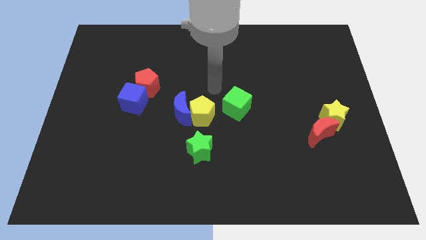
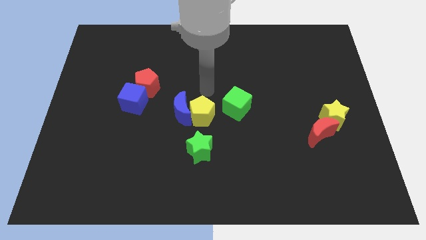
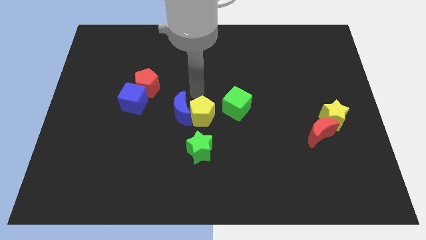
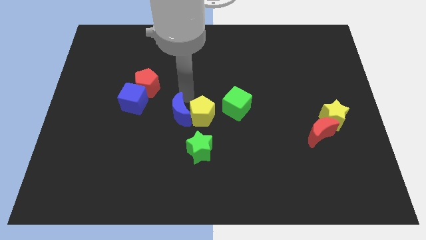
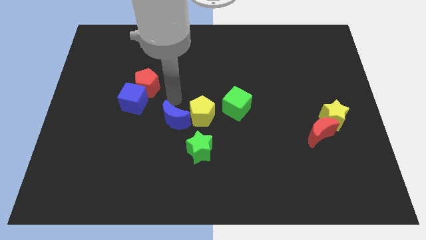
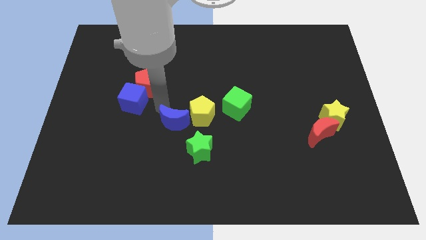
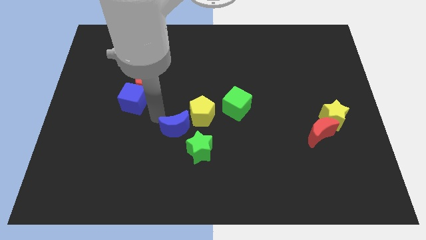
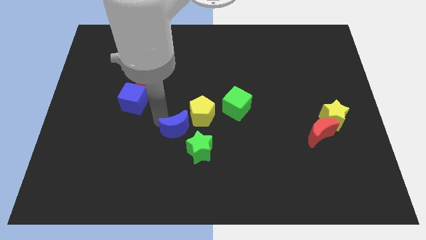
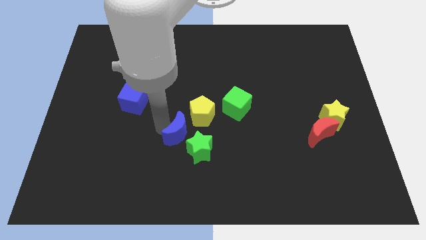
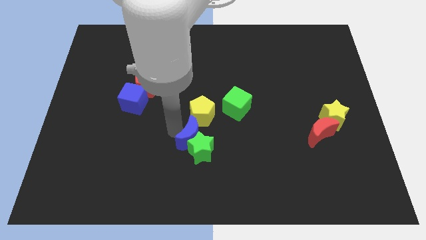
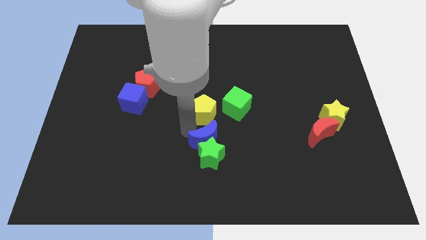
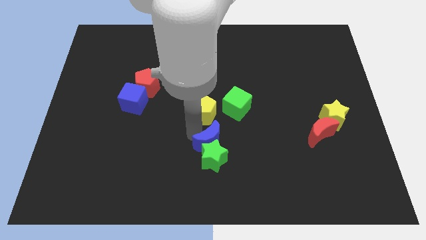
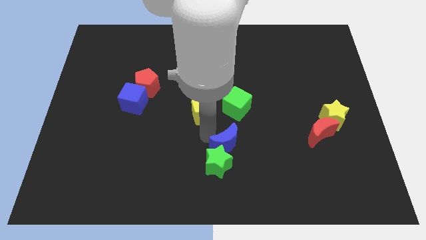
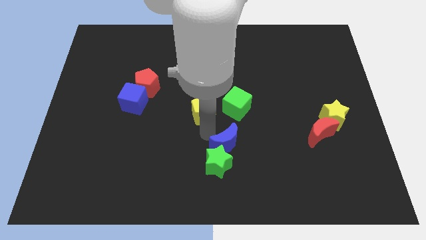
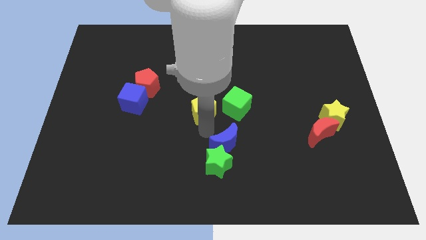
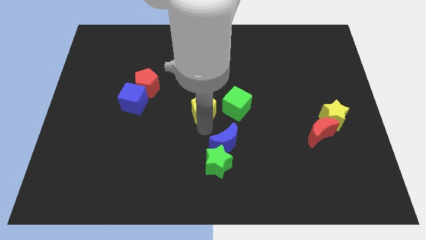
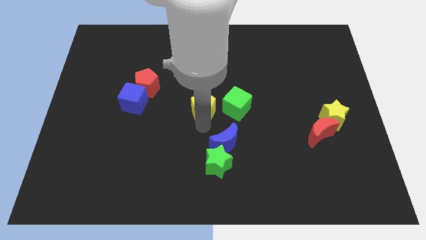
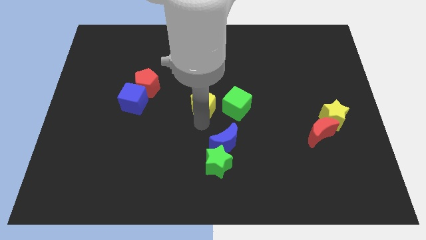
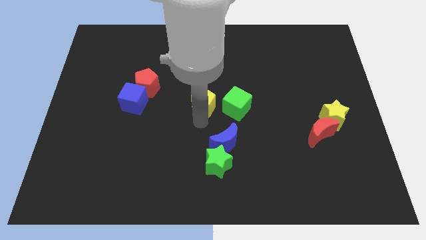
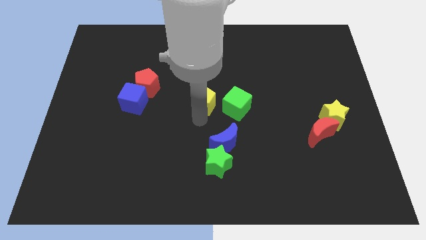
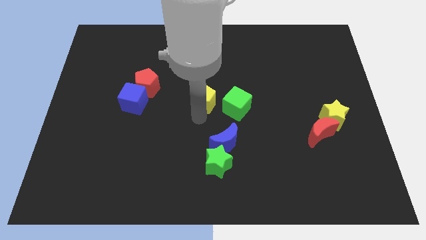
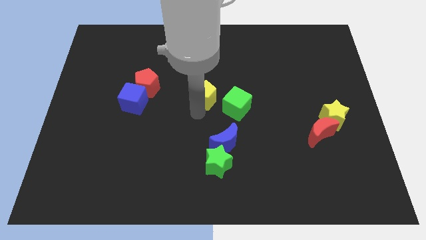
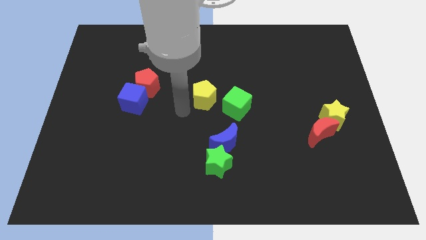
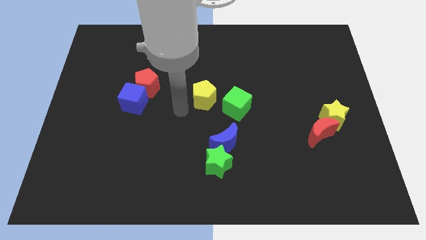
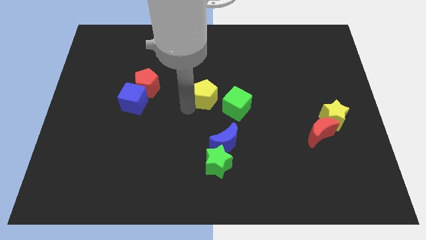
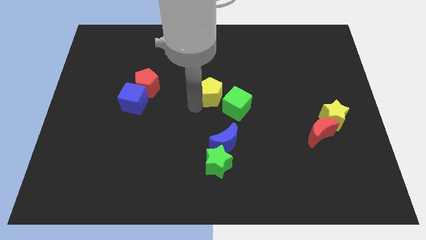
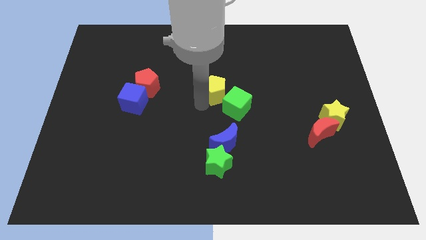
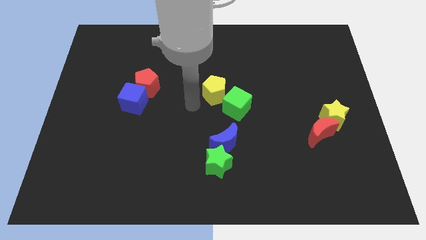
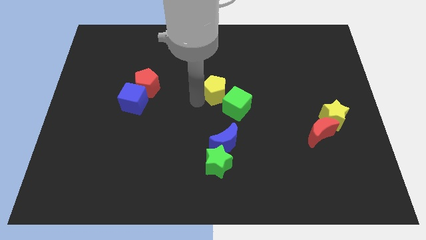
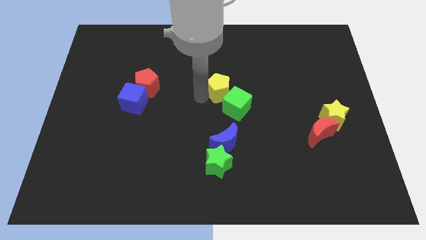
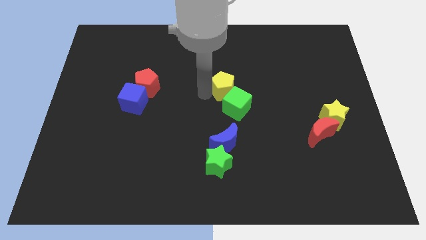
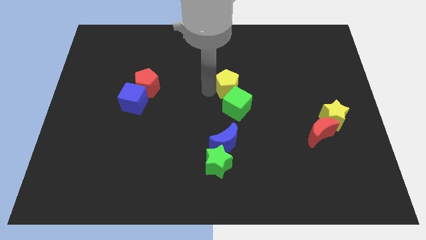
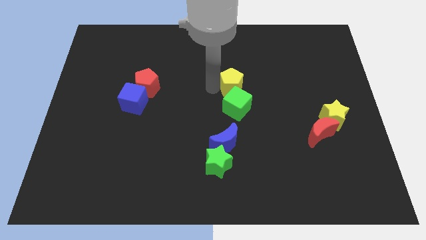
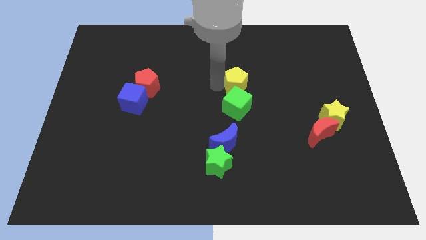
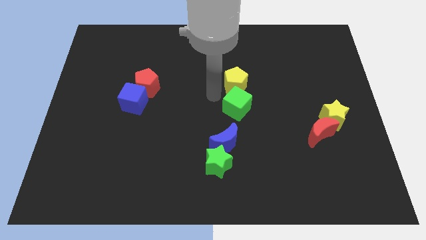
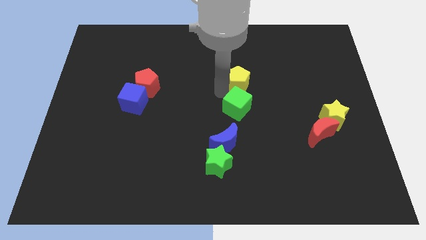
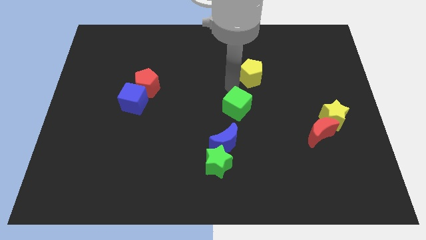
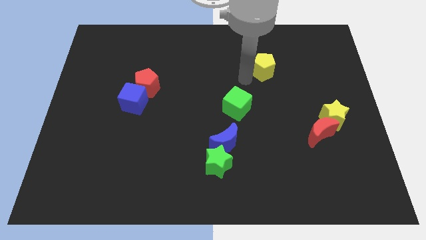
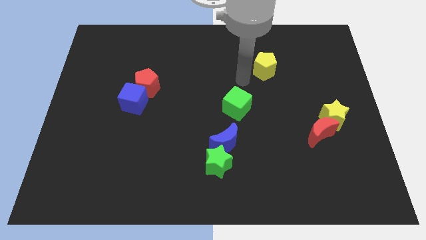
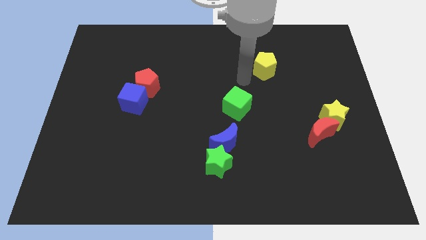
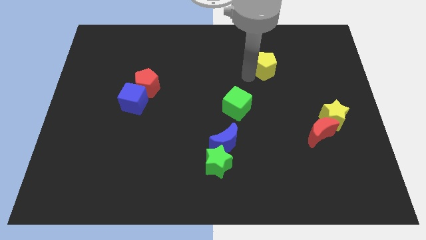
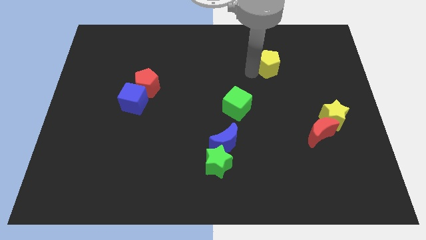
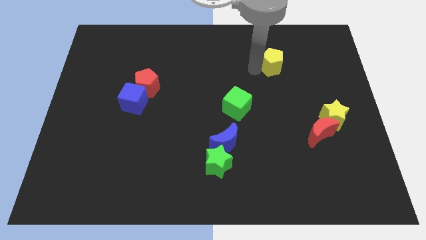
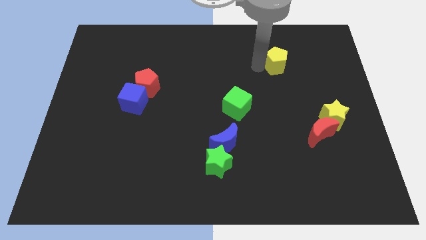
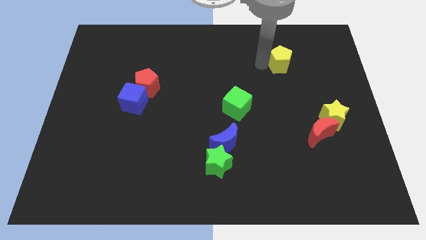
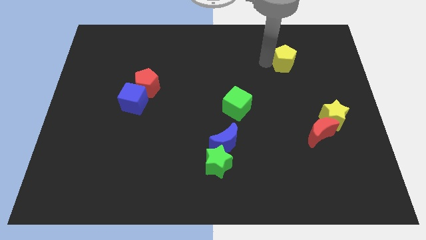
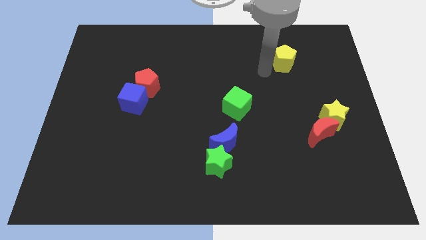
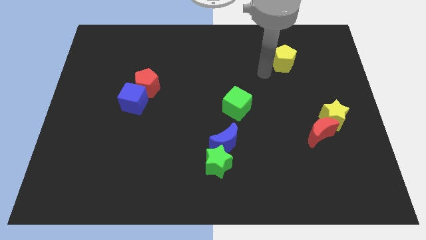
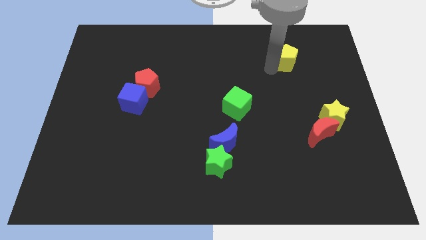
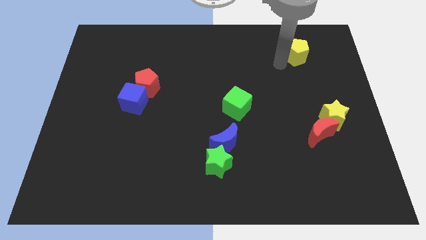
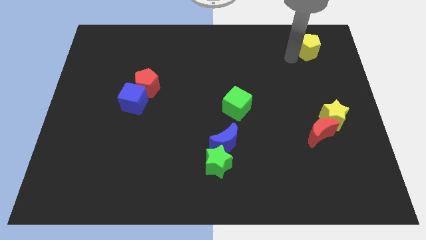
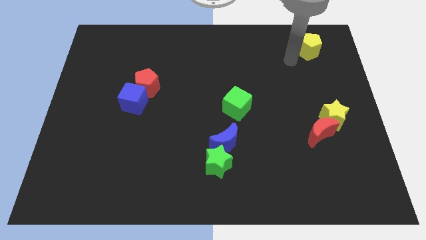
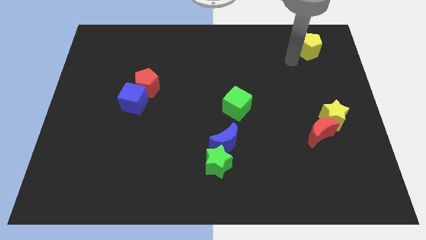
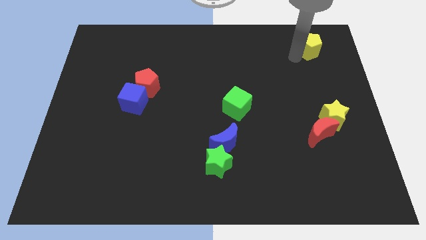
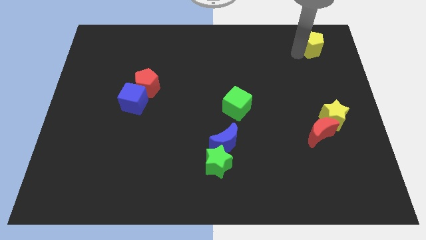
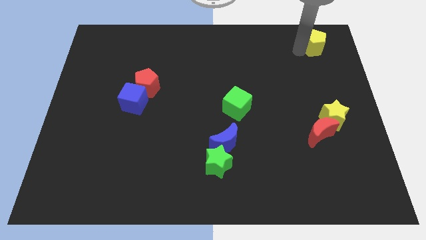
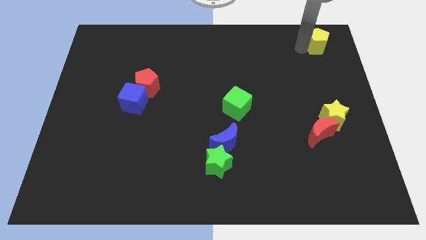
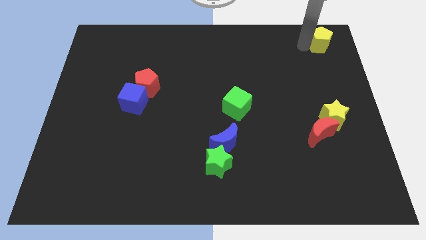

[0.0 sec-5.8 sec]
push the yellow pentagon to the top right corner

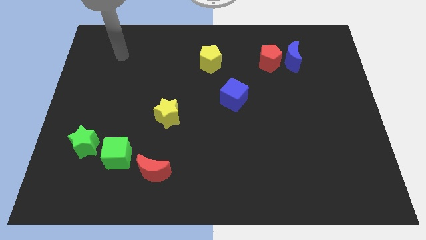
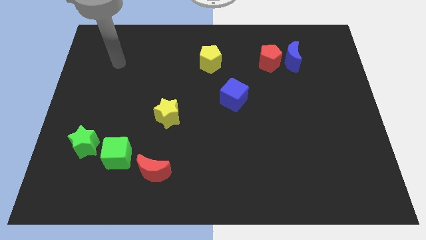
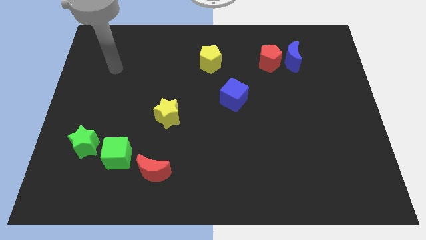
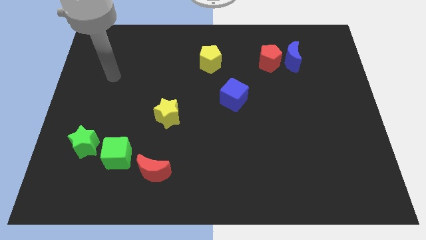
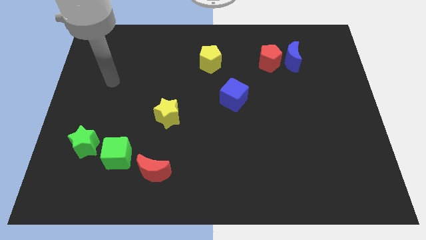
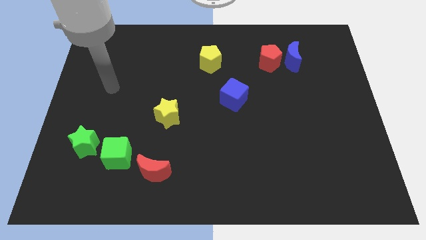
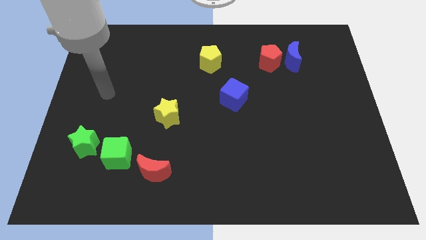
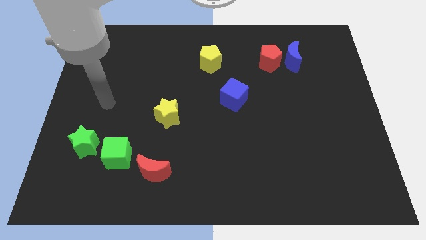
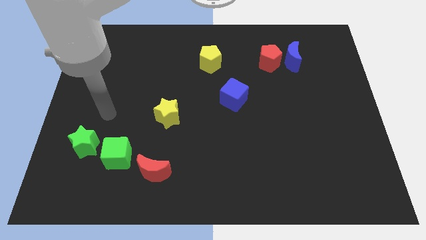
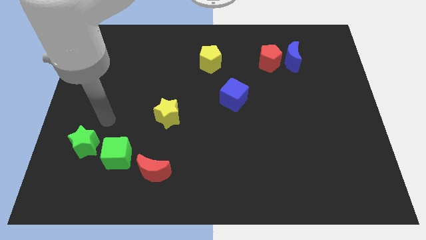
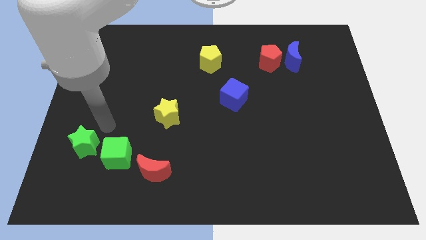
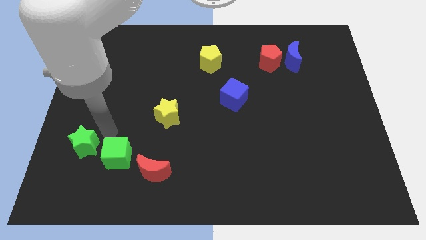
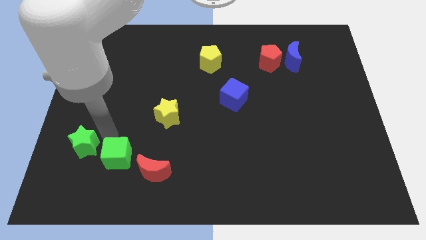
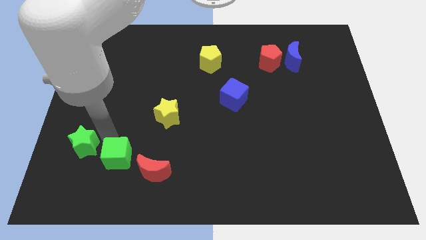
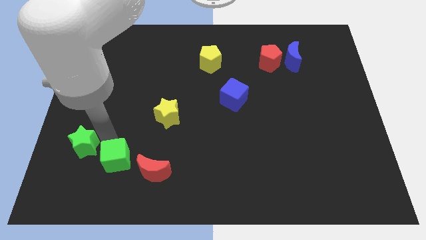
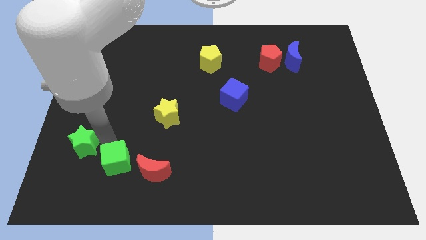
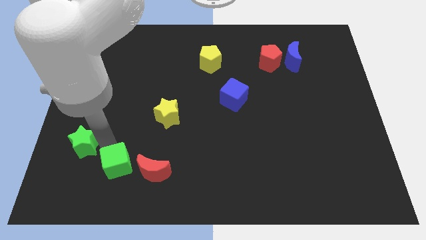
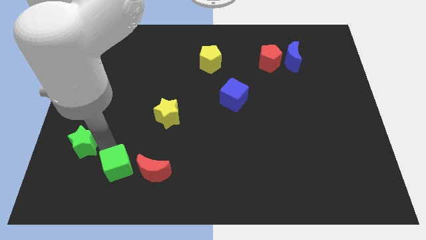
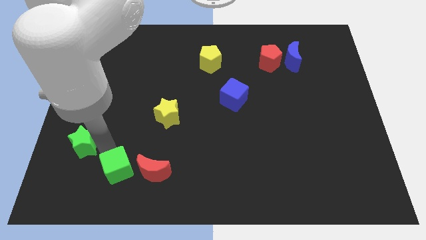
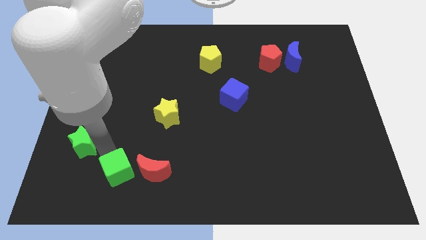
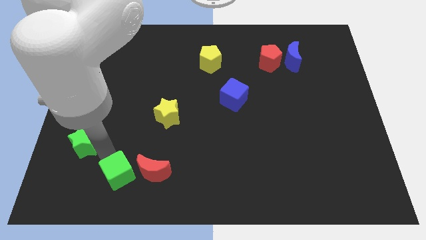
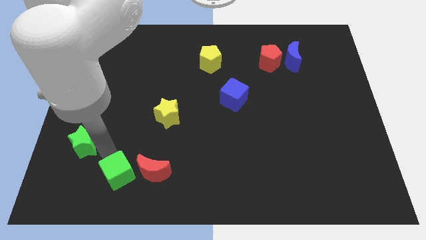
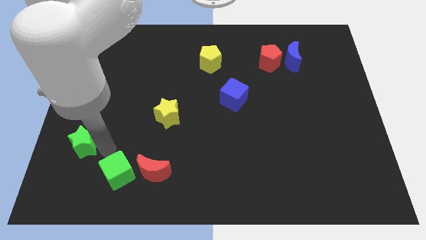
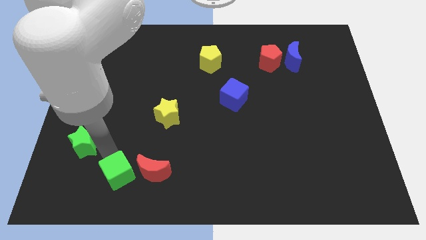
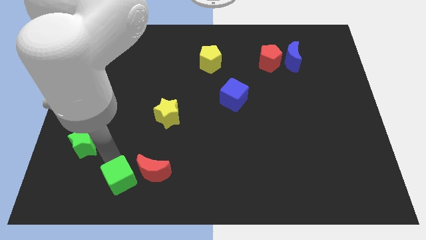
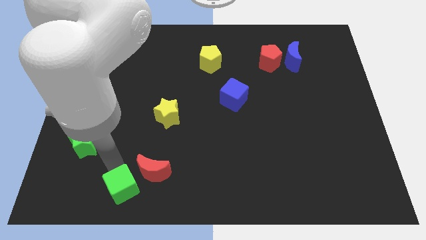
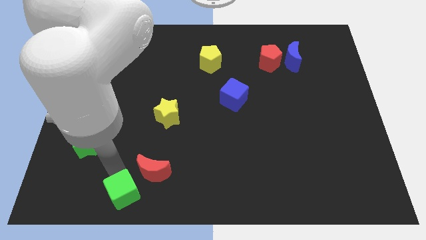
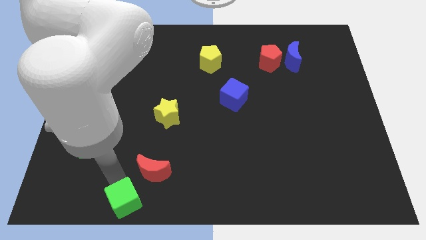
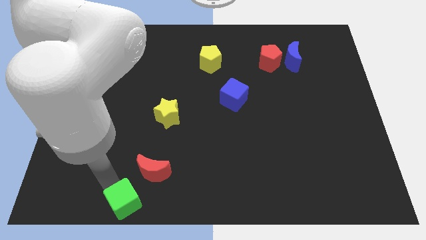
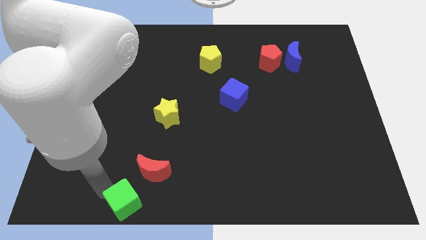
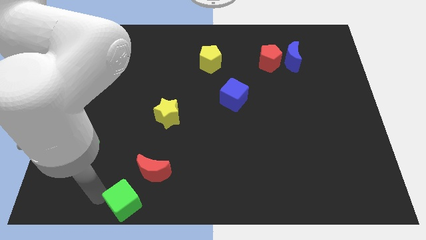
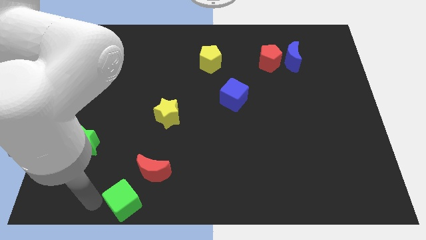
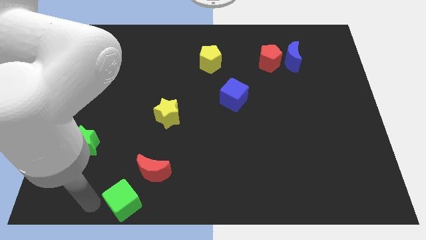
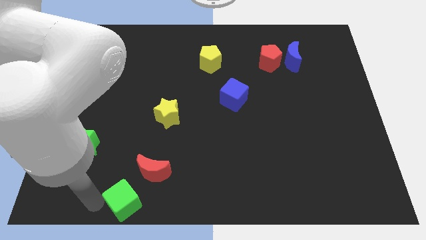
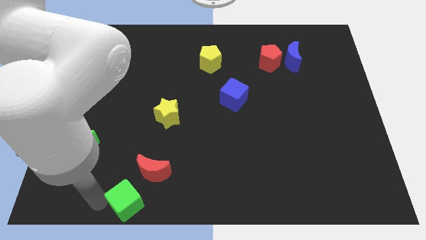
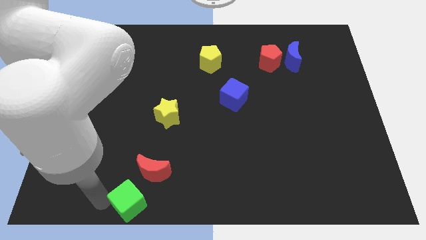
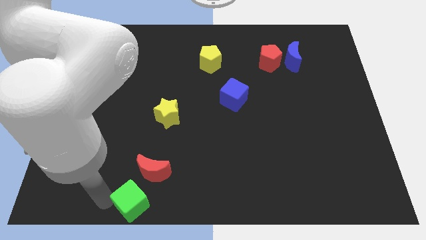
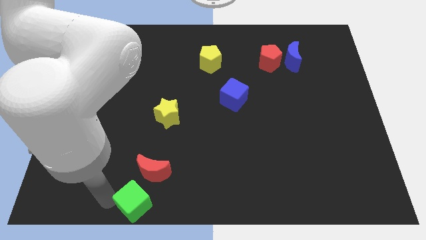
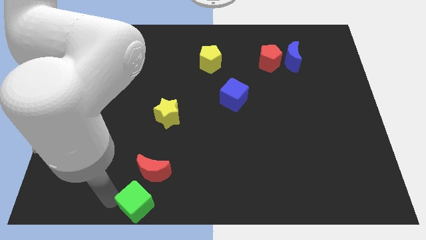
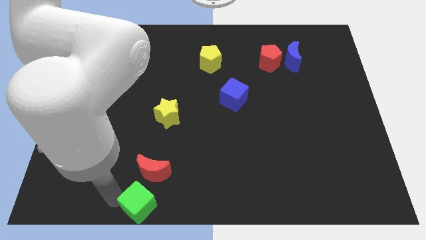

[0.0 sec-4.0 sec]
push the green cube to the bottom side
